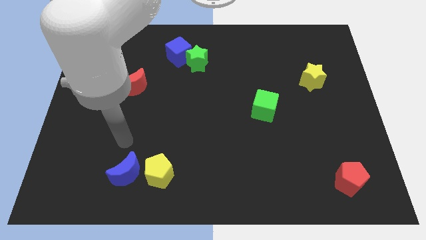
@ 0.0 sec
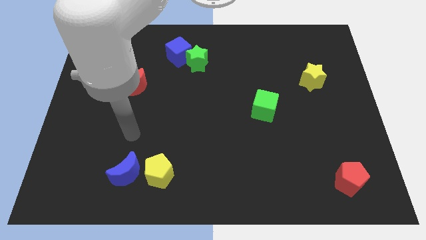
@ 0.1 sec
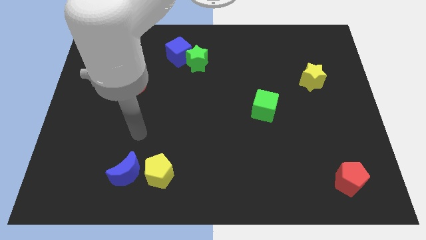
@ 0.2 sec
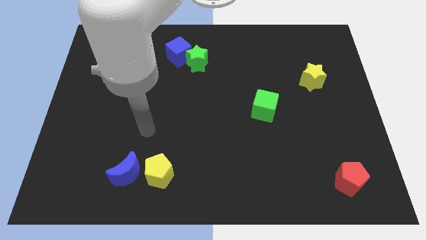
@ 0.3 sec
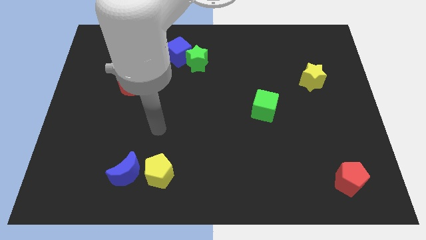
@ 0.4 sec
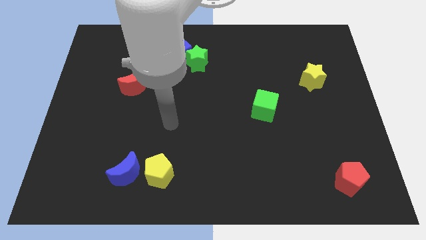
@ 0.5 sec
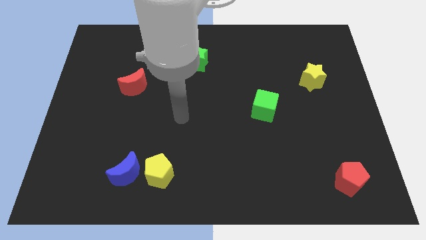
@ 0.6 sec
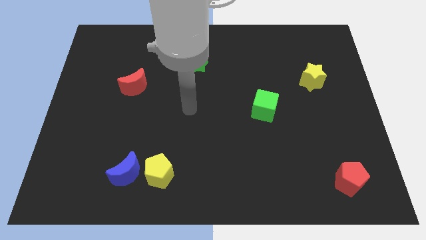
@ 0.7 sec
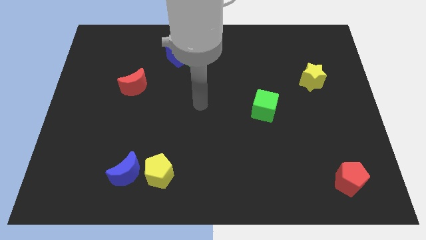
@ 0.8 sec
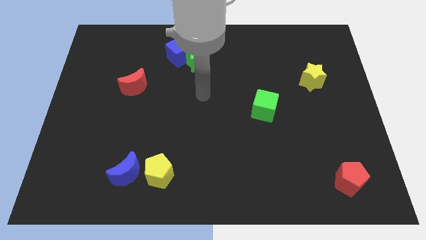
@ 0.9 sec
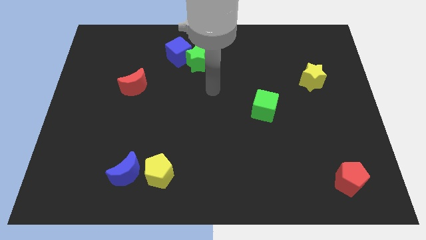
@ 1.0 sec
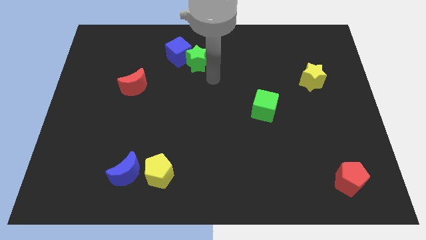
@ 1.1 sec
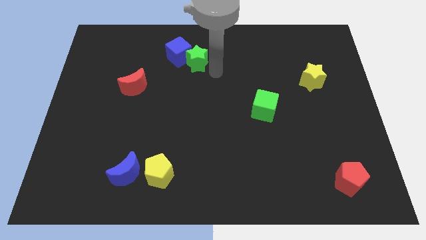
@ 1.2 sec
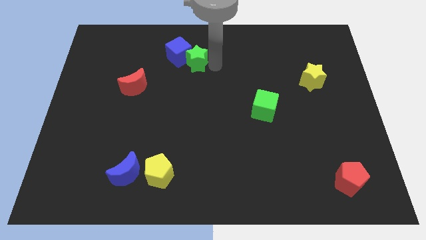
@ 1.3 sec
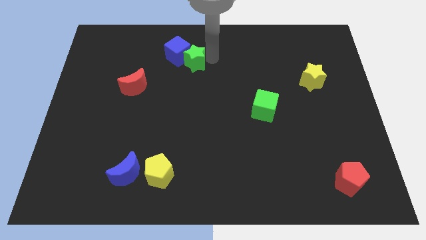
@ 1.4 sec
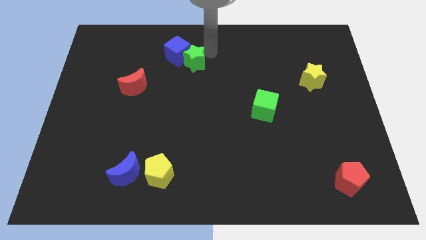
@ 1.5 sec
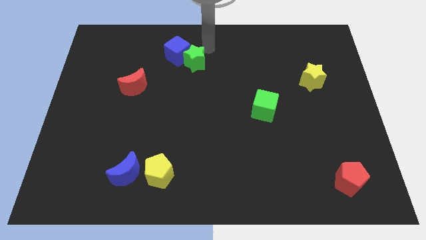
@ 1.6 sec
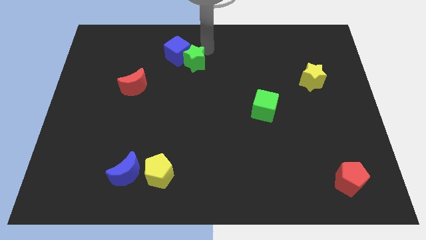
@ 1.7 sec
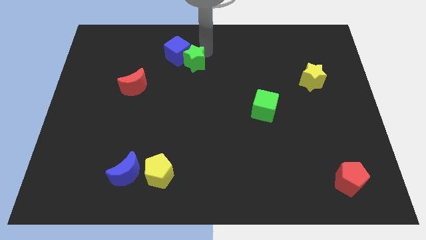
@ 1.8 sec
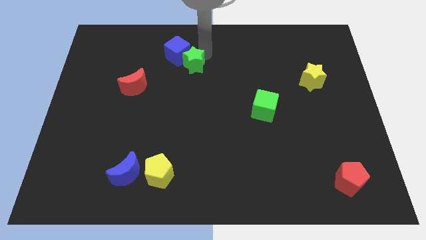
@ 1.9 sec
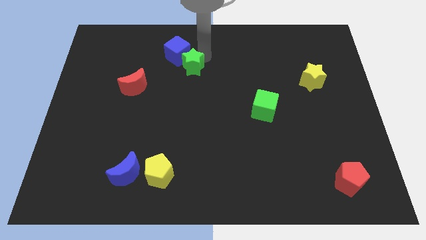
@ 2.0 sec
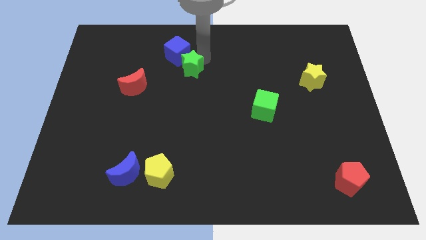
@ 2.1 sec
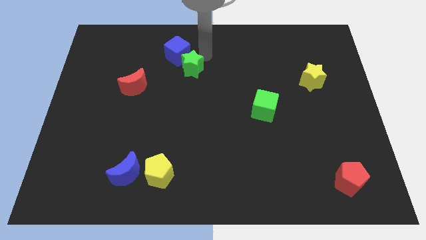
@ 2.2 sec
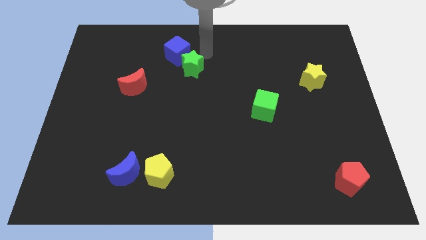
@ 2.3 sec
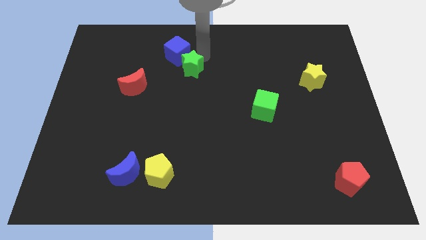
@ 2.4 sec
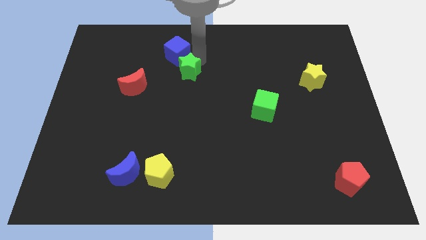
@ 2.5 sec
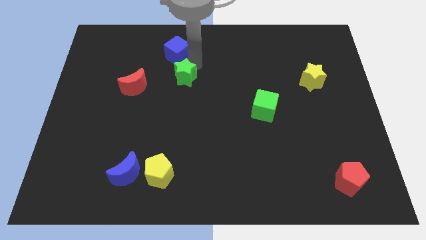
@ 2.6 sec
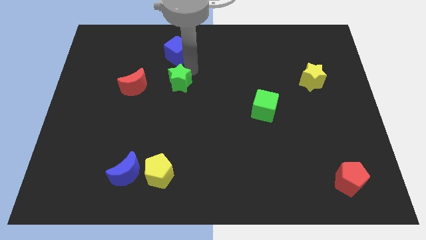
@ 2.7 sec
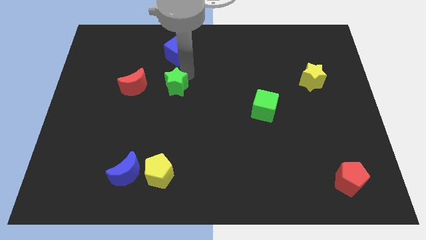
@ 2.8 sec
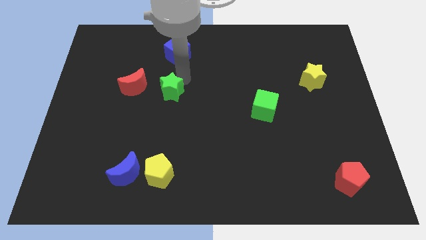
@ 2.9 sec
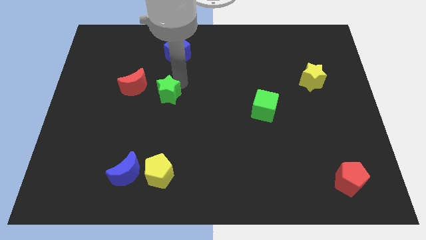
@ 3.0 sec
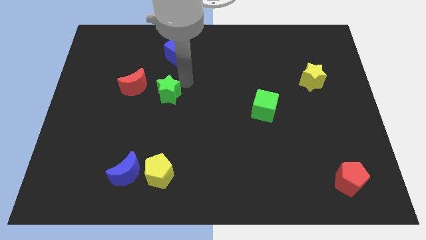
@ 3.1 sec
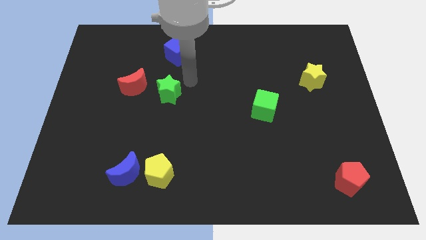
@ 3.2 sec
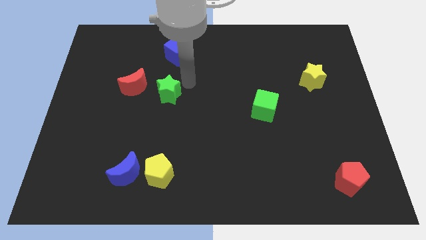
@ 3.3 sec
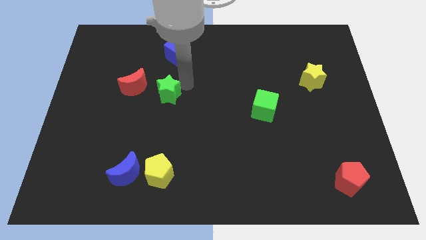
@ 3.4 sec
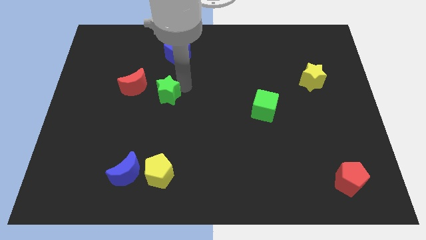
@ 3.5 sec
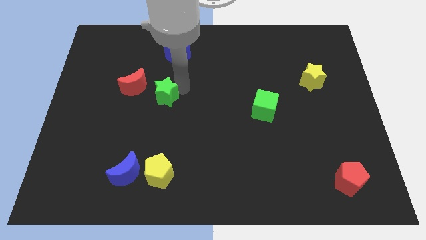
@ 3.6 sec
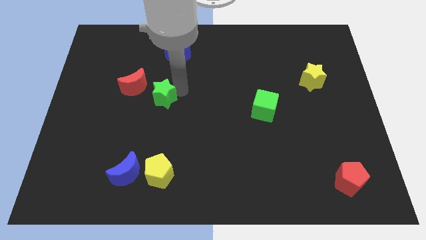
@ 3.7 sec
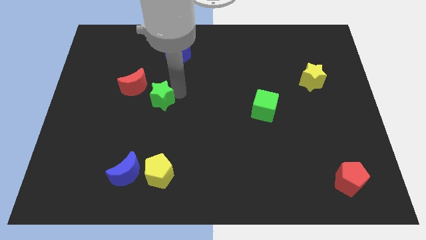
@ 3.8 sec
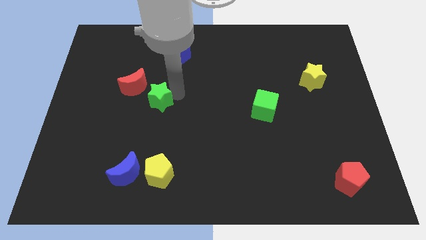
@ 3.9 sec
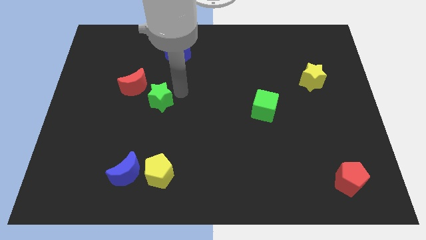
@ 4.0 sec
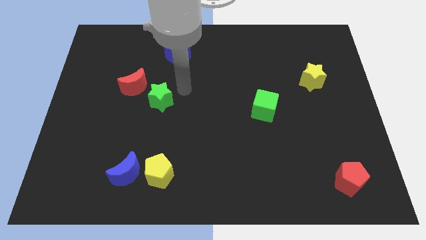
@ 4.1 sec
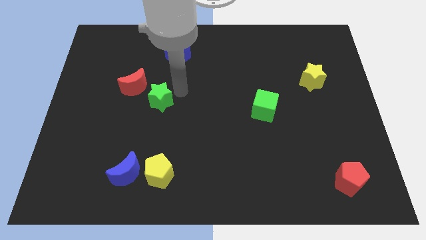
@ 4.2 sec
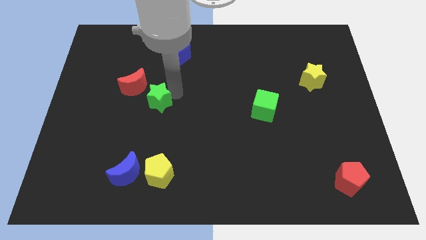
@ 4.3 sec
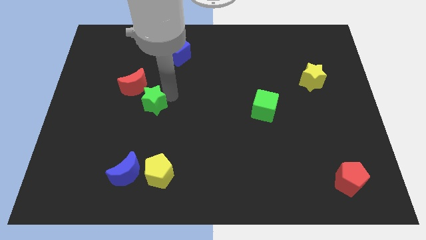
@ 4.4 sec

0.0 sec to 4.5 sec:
push the green star to the bottom of the red moon

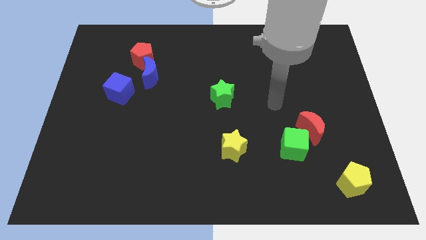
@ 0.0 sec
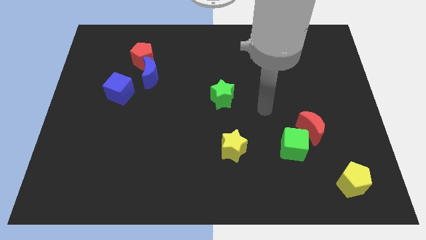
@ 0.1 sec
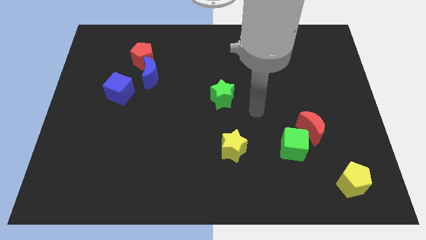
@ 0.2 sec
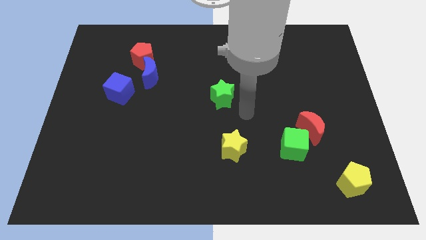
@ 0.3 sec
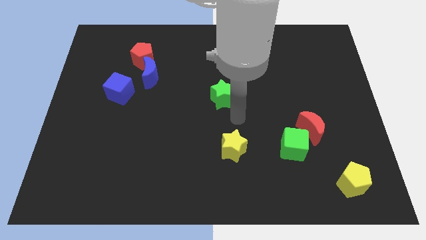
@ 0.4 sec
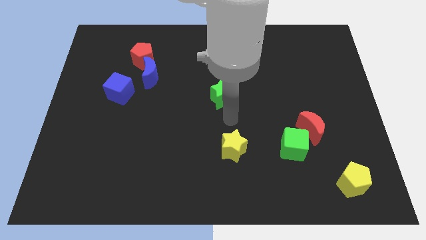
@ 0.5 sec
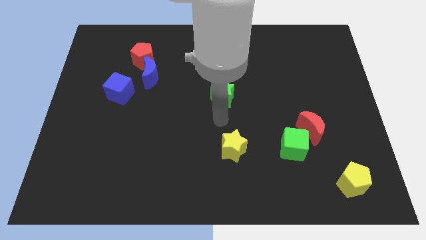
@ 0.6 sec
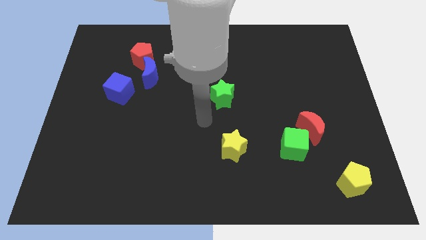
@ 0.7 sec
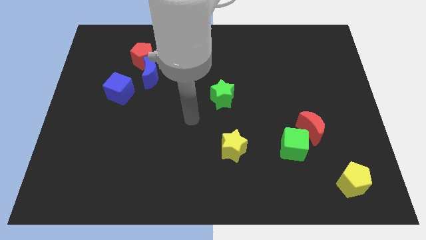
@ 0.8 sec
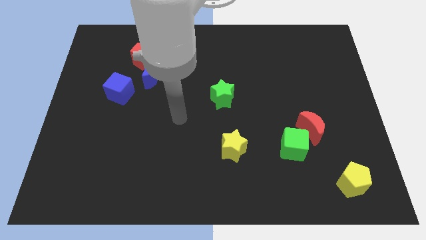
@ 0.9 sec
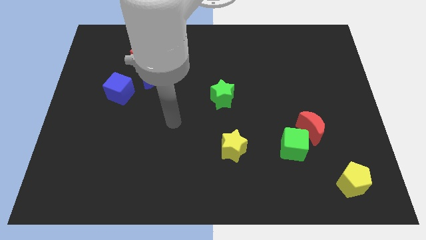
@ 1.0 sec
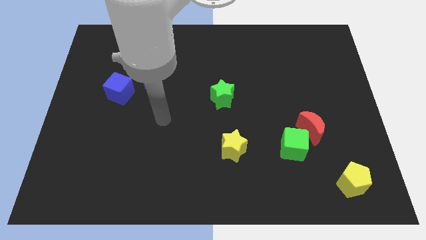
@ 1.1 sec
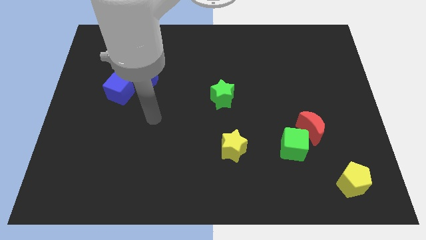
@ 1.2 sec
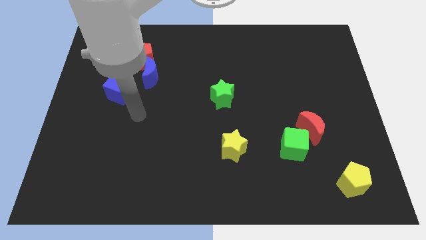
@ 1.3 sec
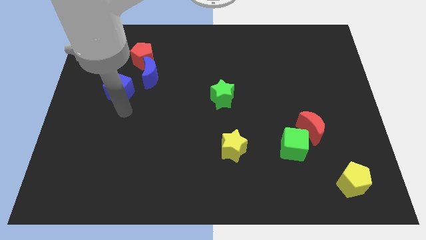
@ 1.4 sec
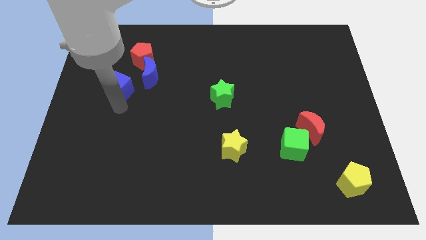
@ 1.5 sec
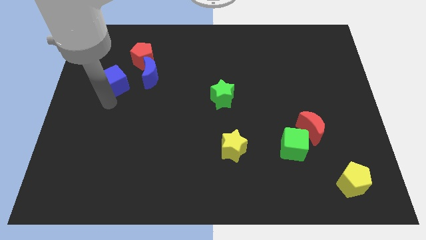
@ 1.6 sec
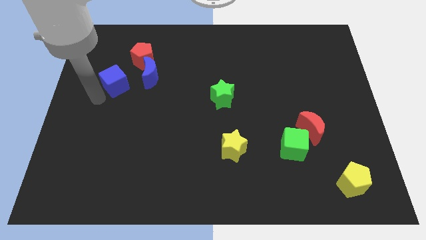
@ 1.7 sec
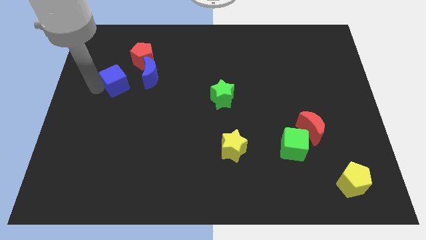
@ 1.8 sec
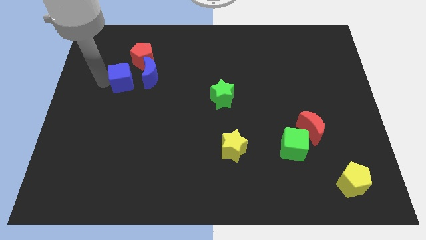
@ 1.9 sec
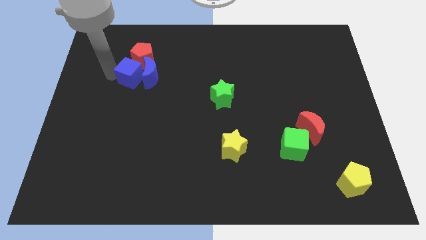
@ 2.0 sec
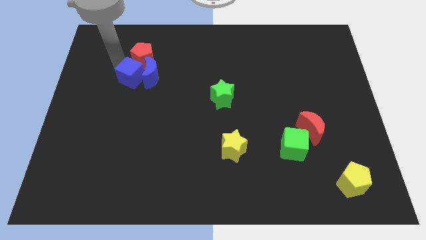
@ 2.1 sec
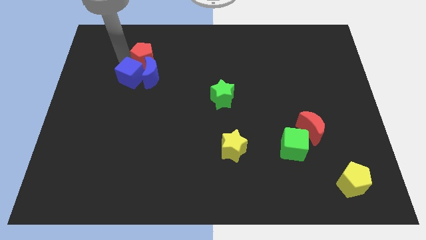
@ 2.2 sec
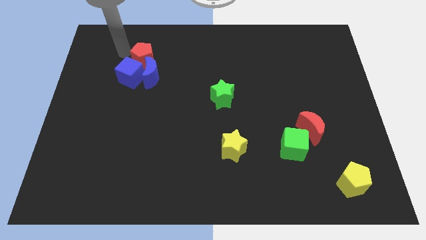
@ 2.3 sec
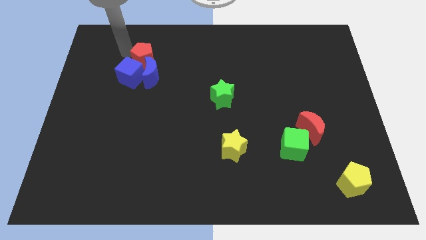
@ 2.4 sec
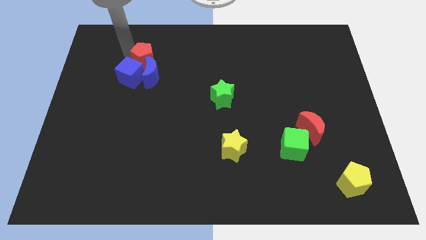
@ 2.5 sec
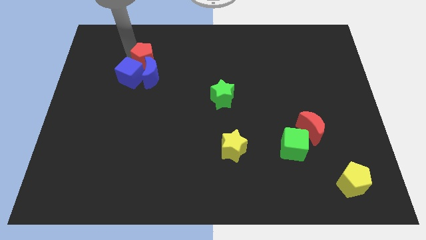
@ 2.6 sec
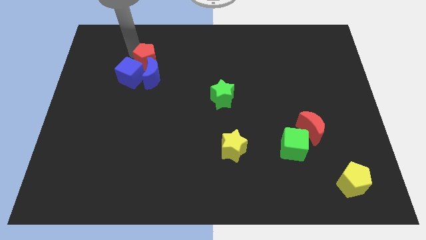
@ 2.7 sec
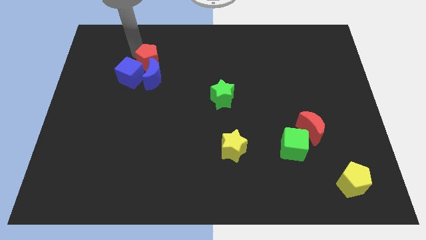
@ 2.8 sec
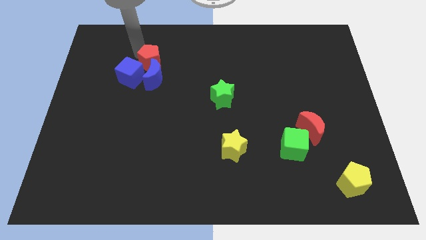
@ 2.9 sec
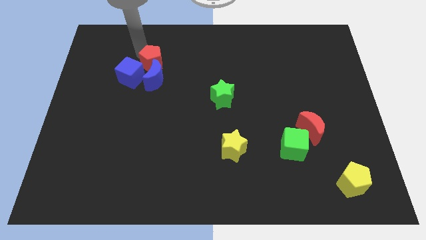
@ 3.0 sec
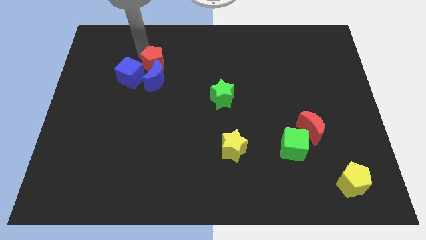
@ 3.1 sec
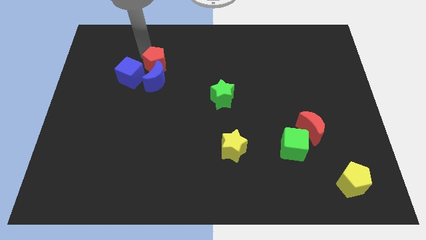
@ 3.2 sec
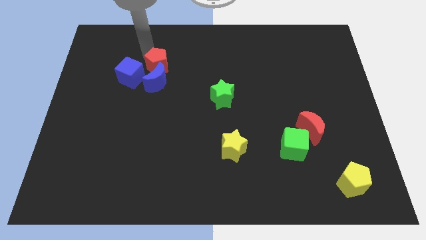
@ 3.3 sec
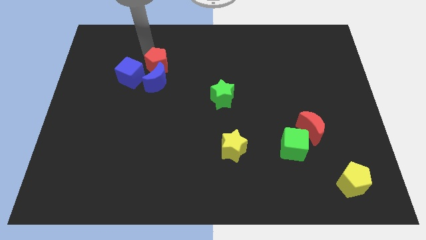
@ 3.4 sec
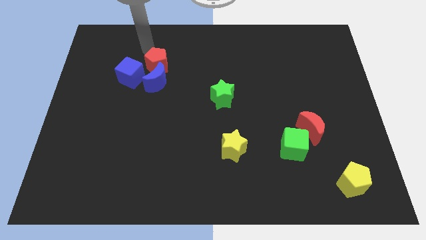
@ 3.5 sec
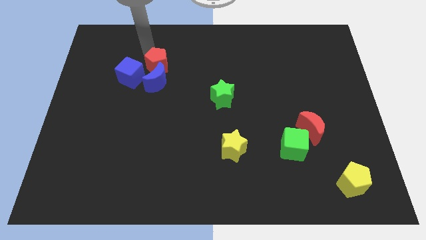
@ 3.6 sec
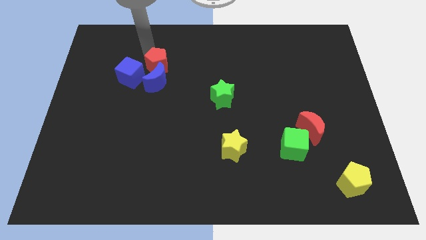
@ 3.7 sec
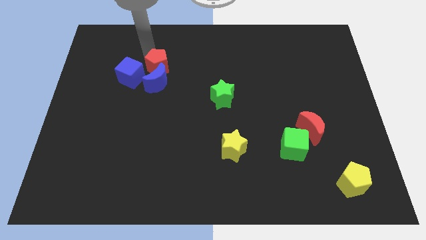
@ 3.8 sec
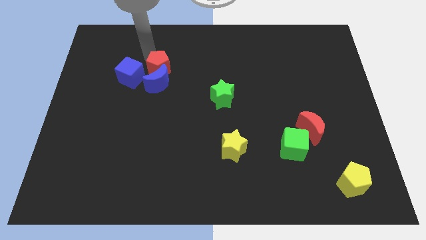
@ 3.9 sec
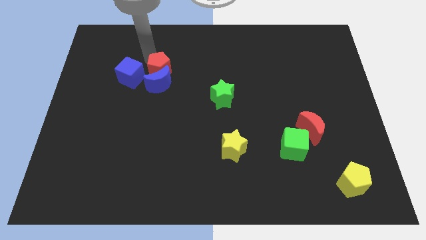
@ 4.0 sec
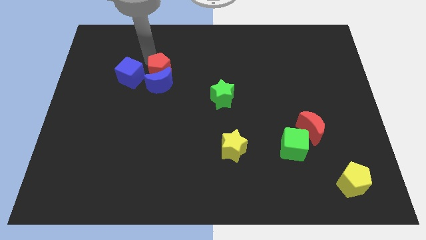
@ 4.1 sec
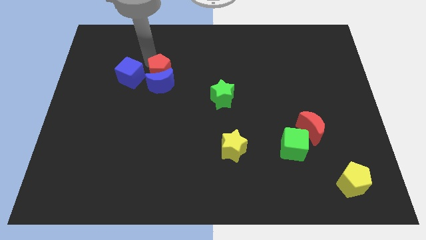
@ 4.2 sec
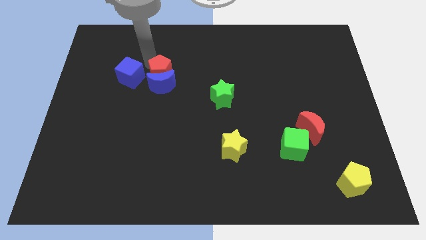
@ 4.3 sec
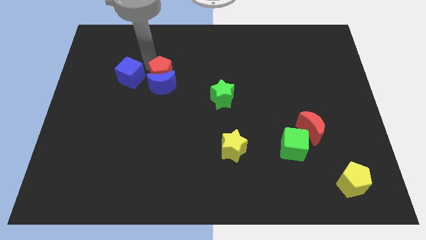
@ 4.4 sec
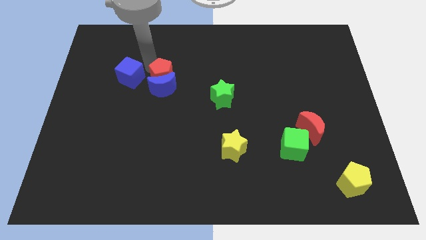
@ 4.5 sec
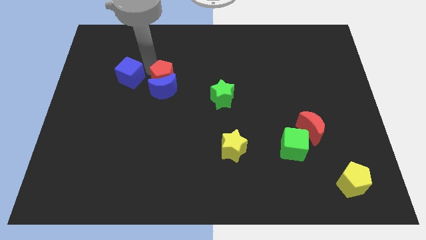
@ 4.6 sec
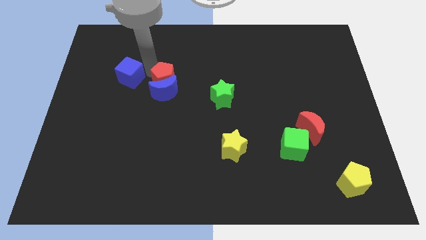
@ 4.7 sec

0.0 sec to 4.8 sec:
push the red pentagon to the bottom right side of the blue cube
